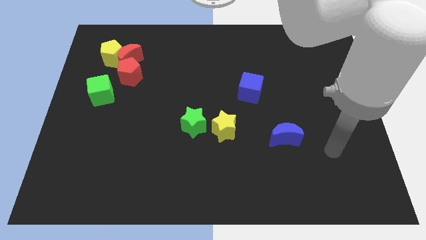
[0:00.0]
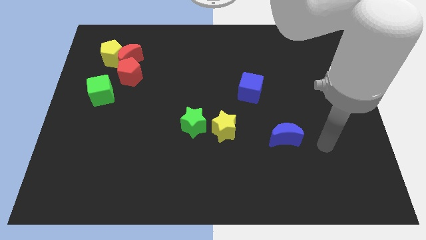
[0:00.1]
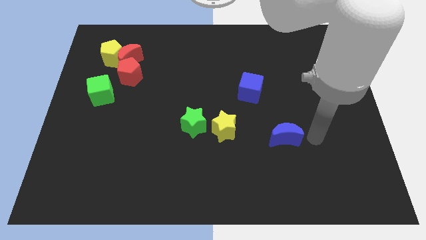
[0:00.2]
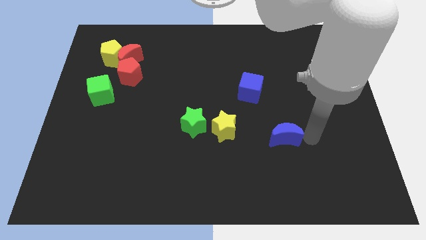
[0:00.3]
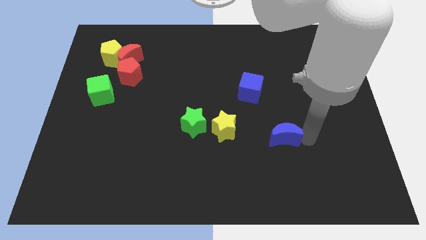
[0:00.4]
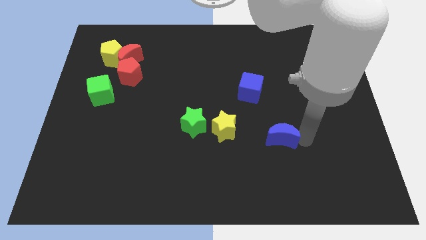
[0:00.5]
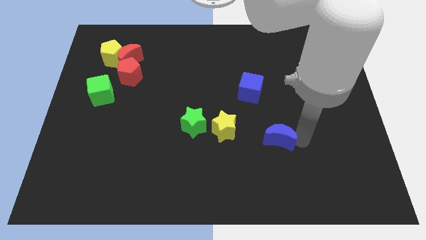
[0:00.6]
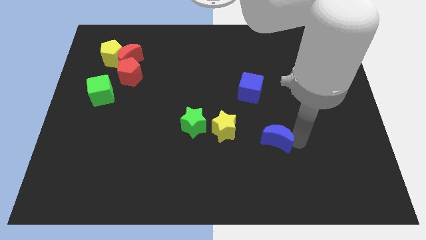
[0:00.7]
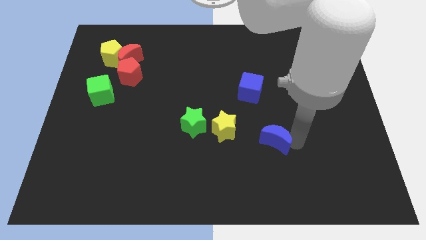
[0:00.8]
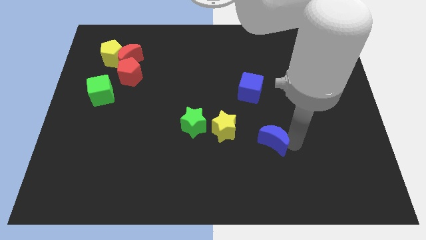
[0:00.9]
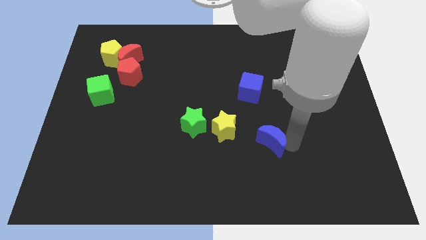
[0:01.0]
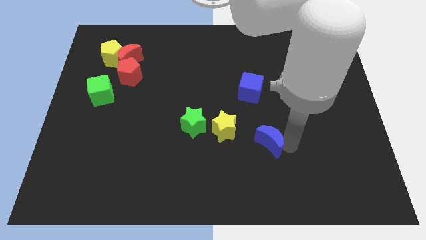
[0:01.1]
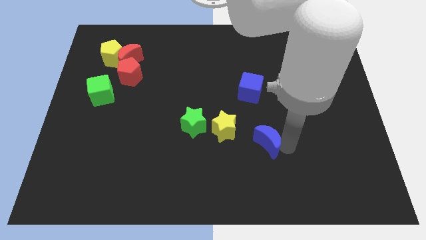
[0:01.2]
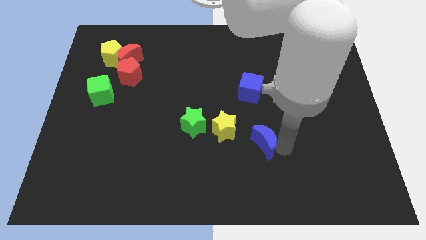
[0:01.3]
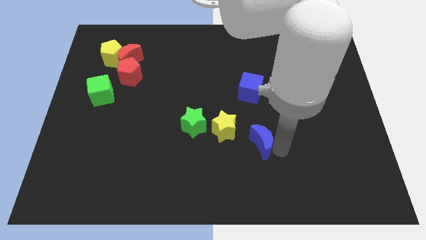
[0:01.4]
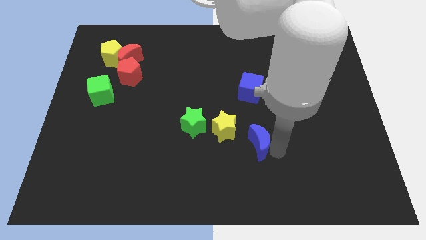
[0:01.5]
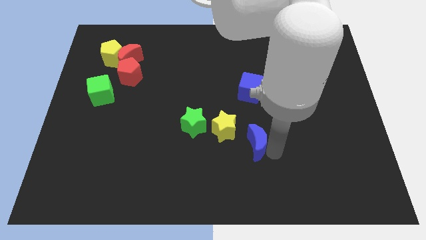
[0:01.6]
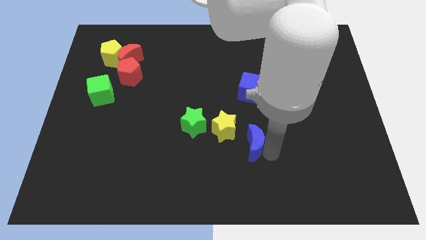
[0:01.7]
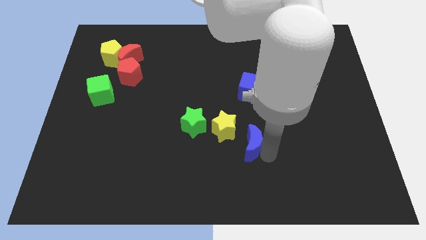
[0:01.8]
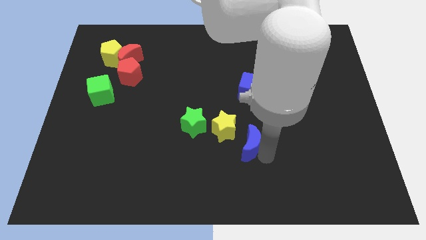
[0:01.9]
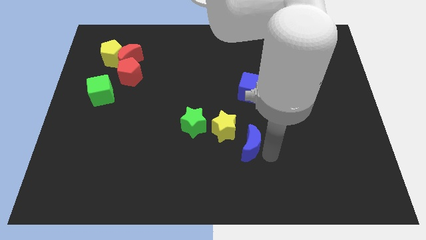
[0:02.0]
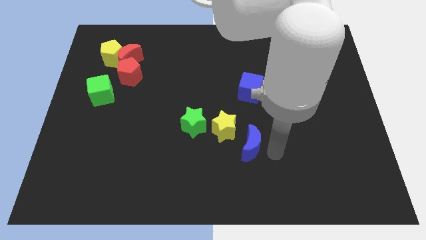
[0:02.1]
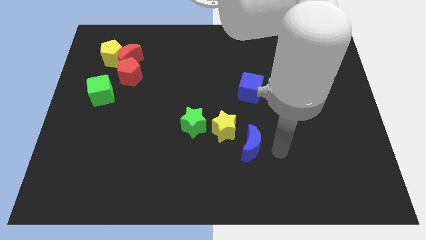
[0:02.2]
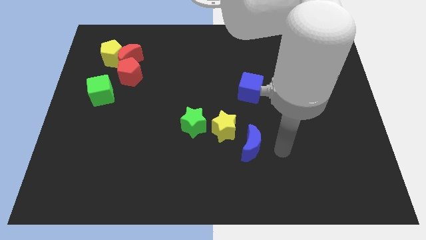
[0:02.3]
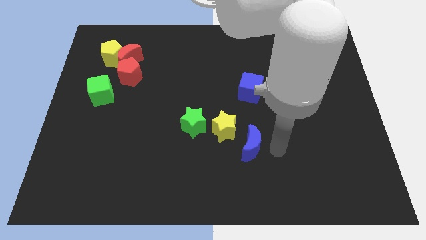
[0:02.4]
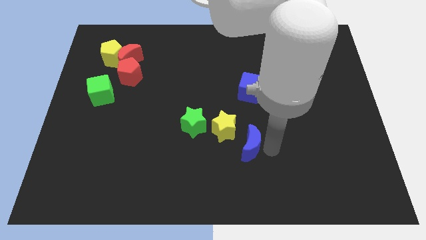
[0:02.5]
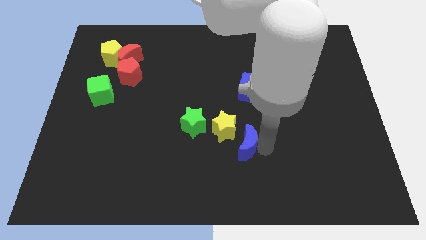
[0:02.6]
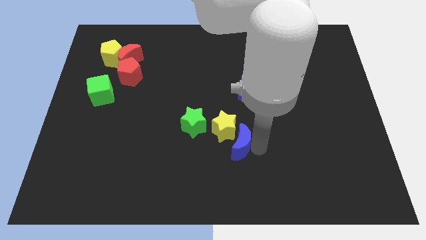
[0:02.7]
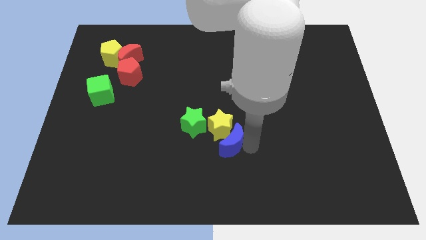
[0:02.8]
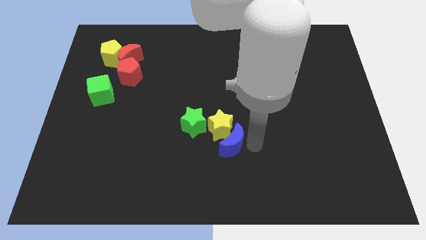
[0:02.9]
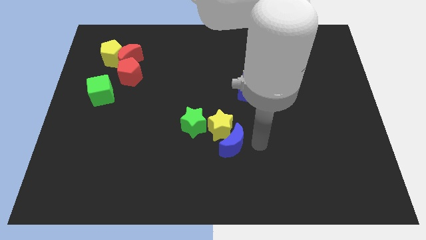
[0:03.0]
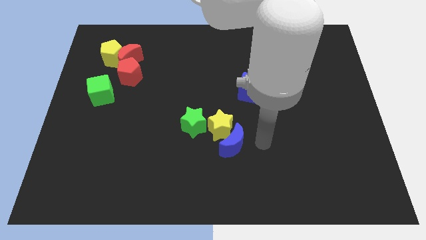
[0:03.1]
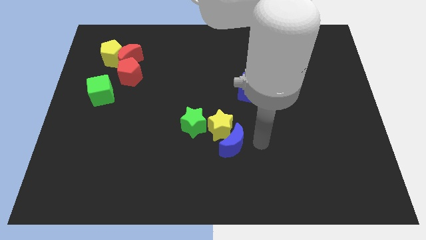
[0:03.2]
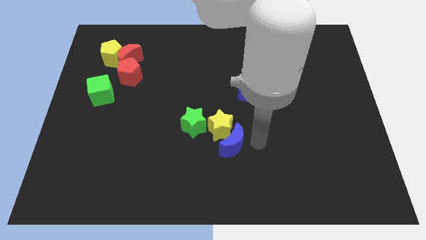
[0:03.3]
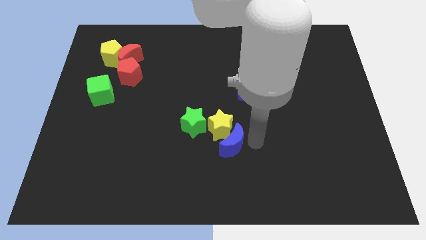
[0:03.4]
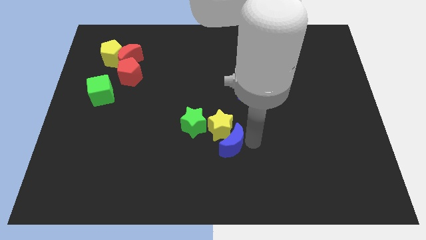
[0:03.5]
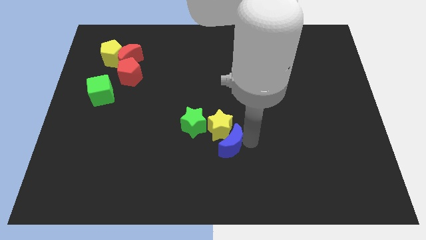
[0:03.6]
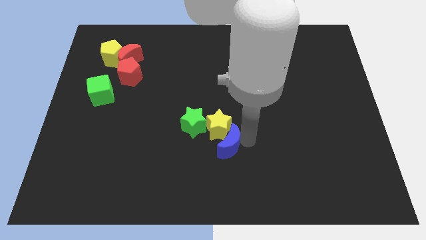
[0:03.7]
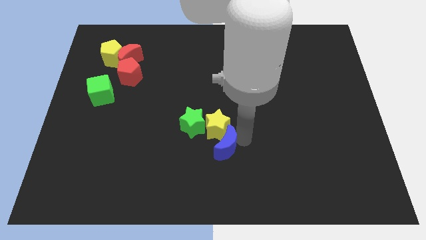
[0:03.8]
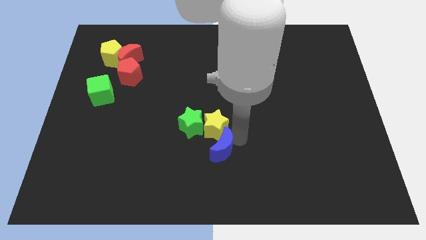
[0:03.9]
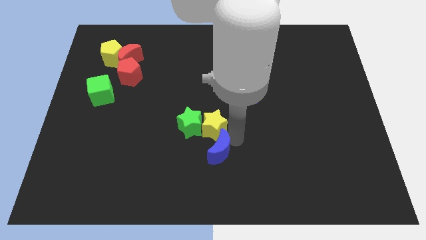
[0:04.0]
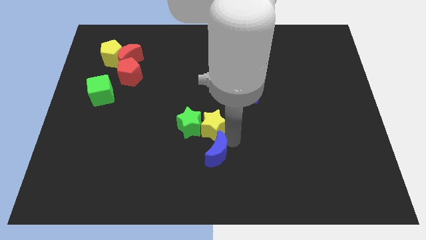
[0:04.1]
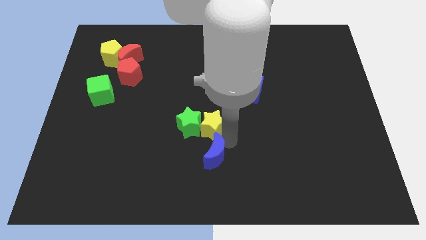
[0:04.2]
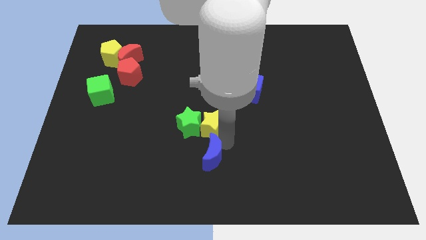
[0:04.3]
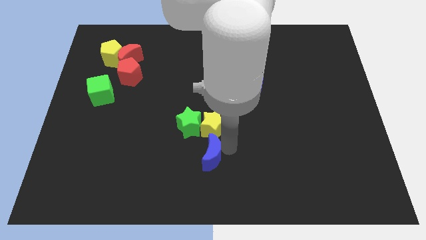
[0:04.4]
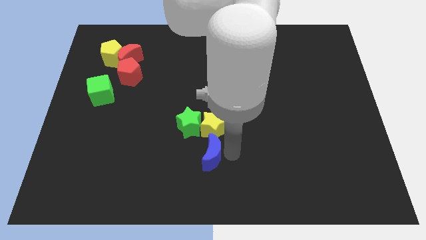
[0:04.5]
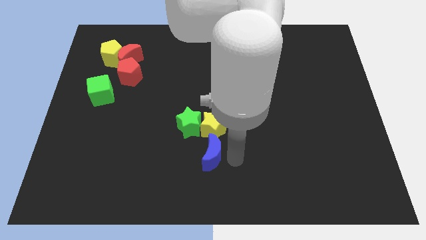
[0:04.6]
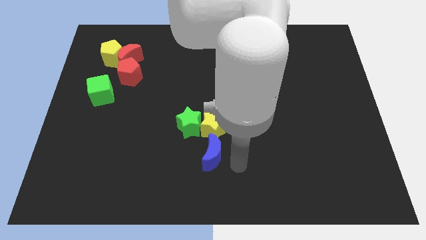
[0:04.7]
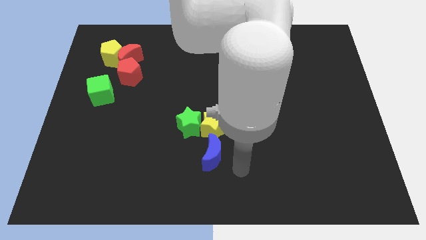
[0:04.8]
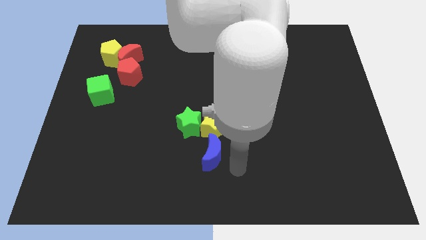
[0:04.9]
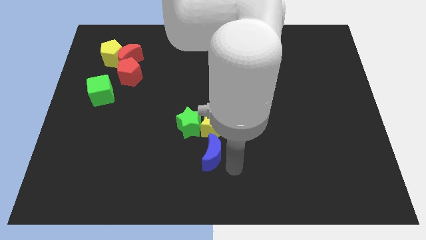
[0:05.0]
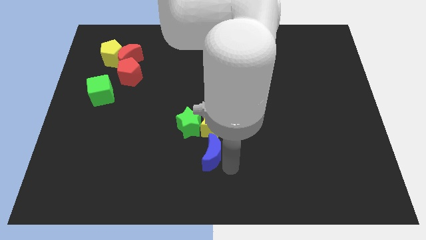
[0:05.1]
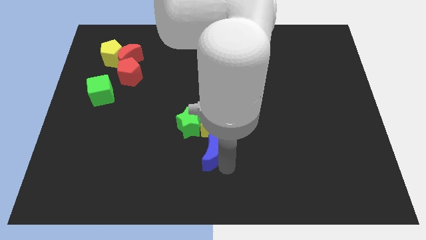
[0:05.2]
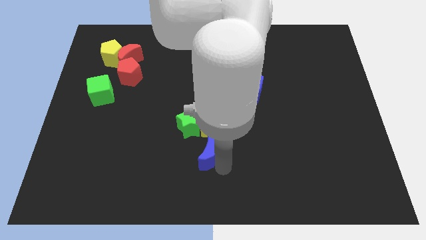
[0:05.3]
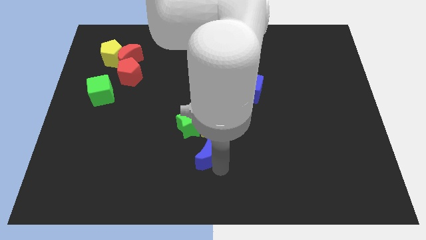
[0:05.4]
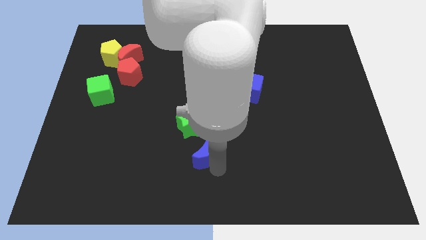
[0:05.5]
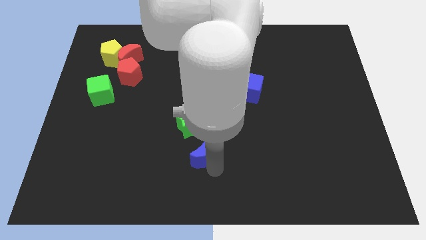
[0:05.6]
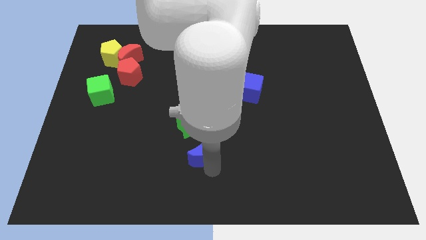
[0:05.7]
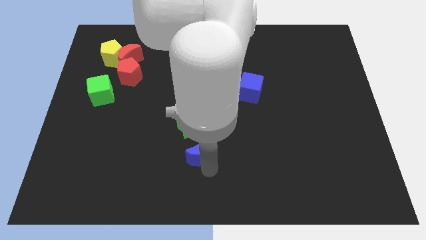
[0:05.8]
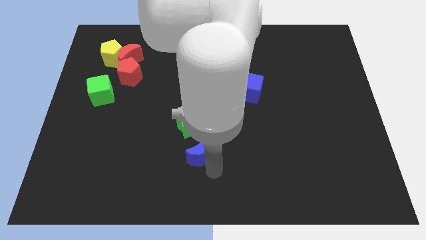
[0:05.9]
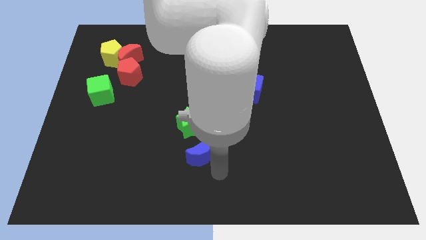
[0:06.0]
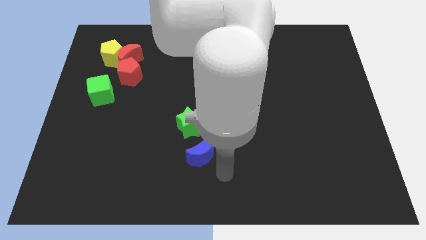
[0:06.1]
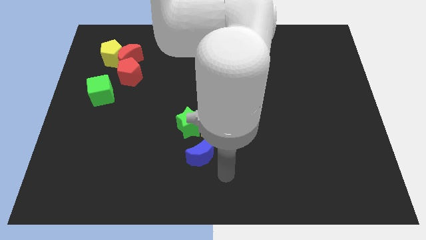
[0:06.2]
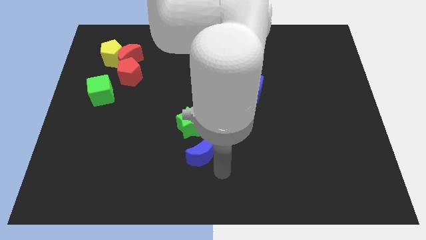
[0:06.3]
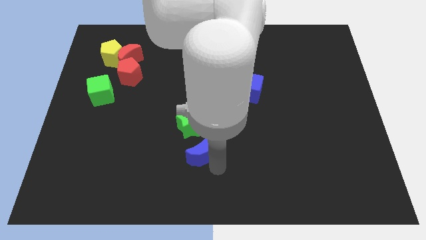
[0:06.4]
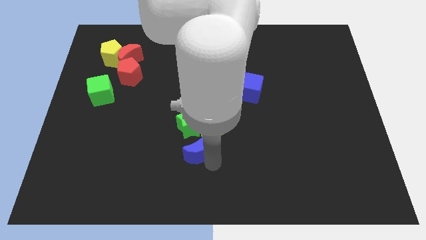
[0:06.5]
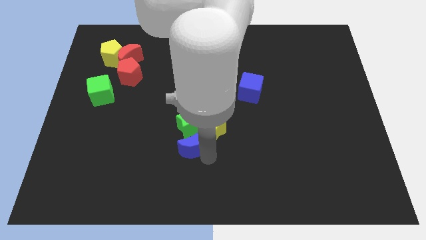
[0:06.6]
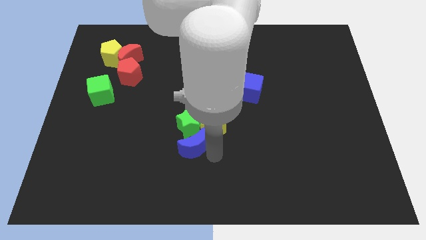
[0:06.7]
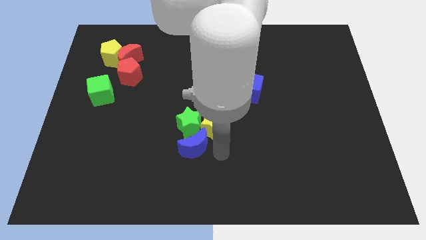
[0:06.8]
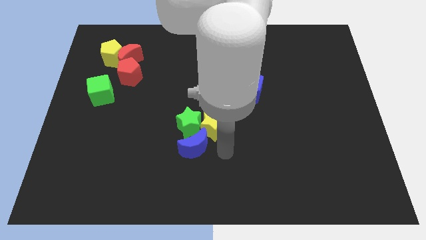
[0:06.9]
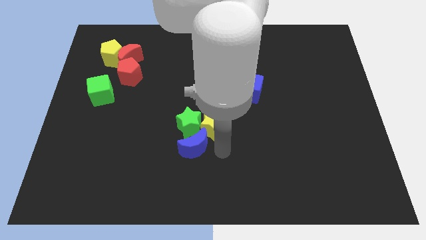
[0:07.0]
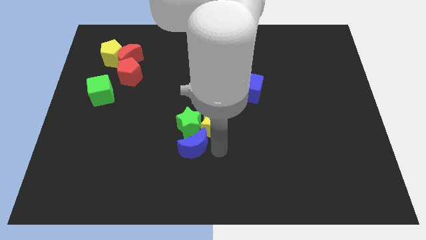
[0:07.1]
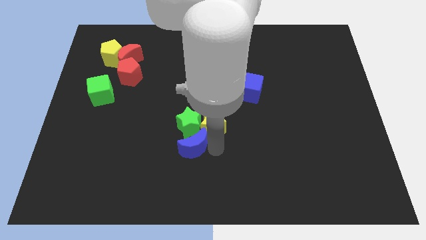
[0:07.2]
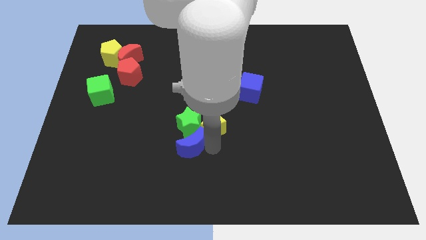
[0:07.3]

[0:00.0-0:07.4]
move the blue moon to the left
